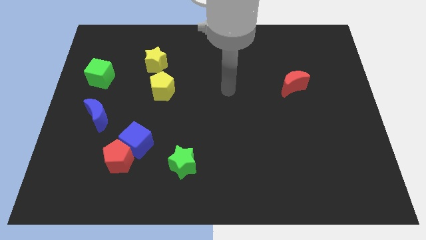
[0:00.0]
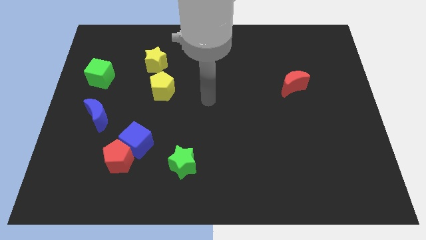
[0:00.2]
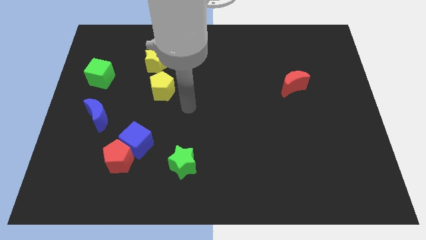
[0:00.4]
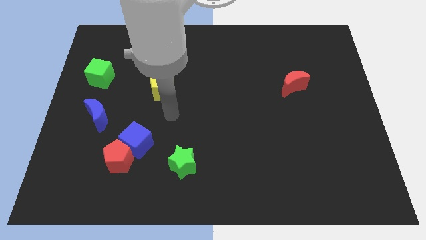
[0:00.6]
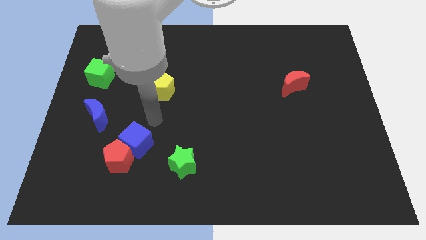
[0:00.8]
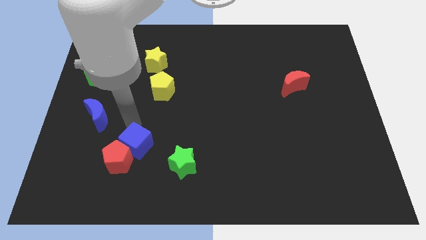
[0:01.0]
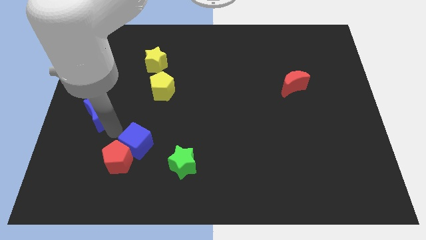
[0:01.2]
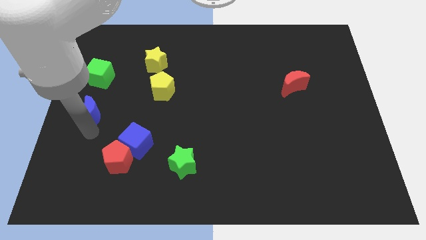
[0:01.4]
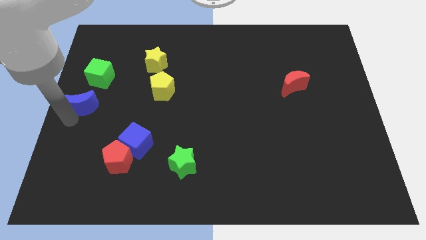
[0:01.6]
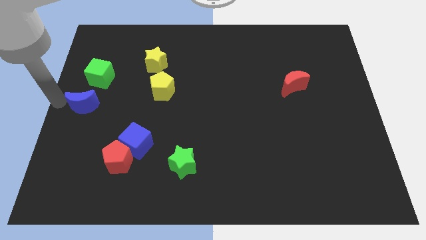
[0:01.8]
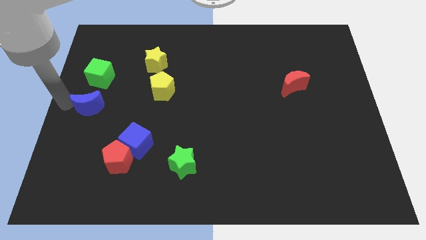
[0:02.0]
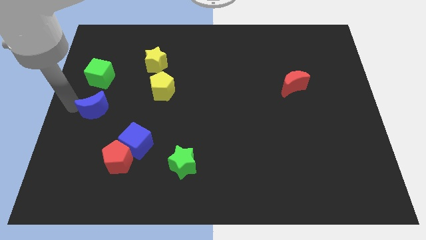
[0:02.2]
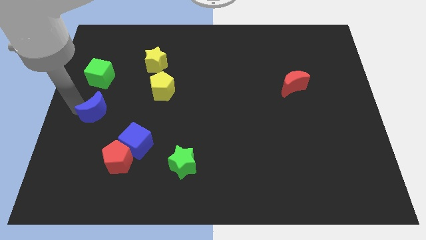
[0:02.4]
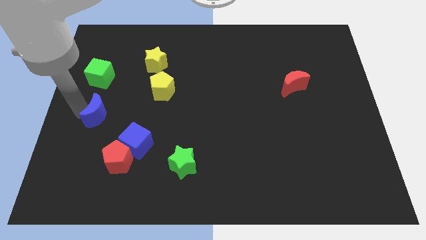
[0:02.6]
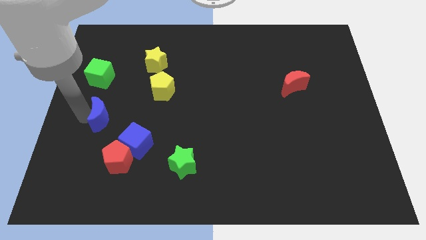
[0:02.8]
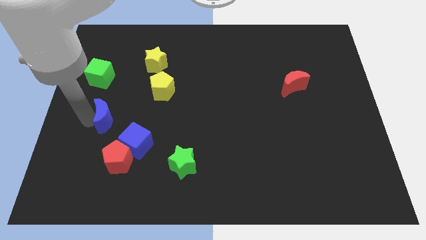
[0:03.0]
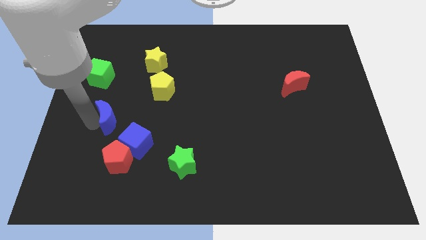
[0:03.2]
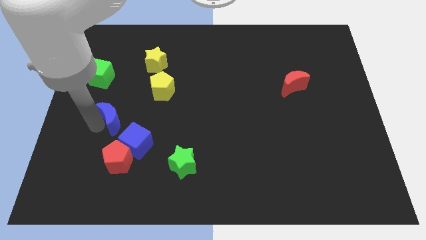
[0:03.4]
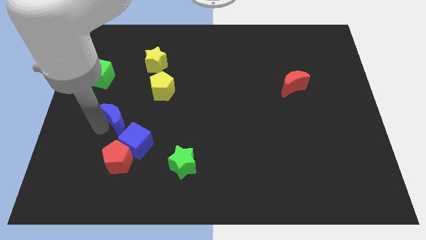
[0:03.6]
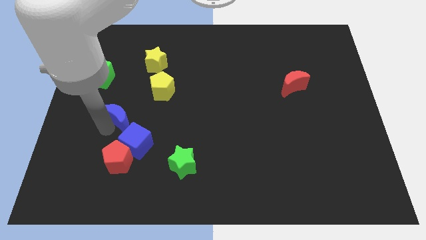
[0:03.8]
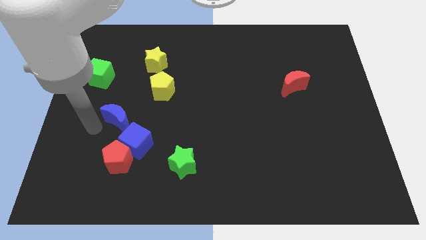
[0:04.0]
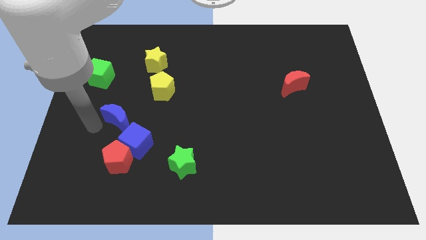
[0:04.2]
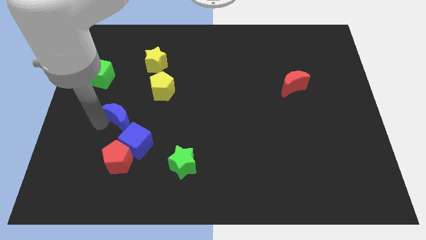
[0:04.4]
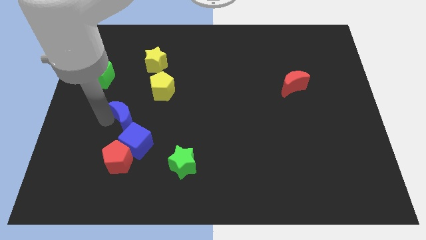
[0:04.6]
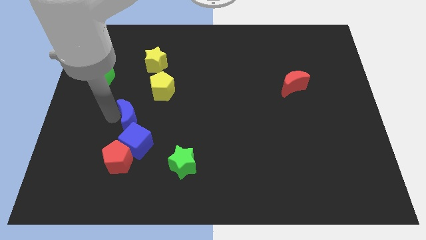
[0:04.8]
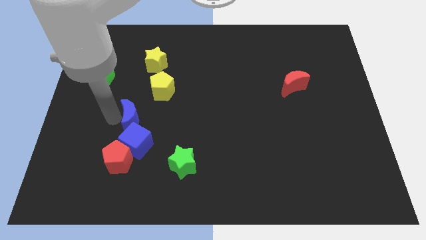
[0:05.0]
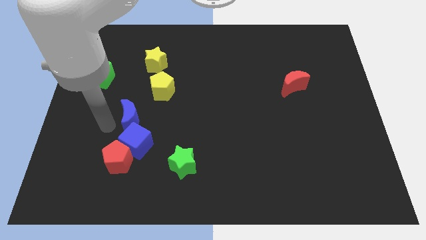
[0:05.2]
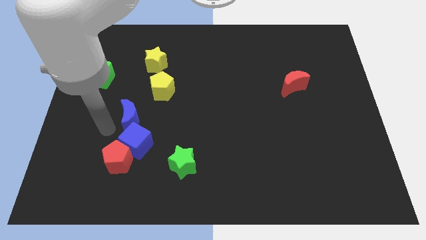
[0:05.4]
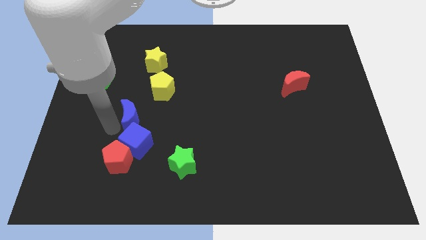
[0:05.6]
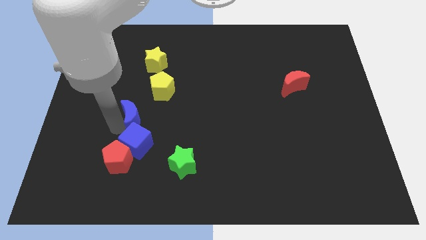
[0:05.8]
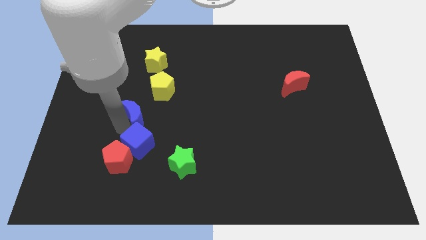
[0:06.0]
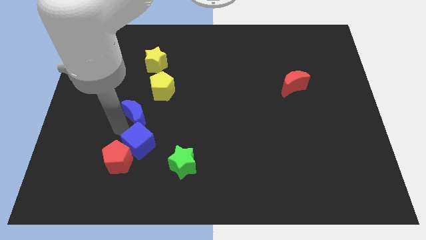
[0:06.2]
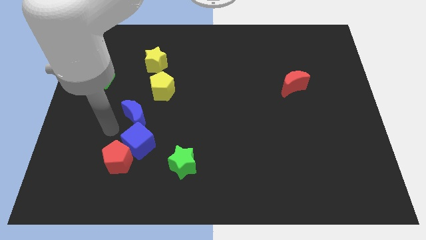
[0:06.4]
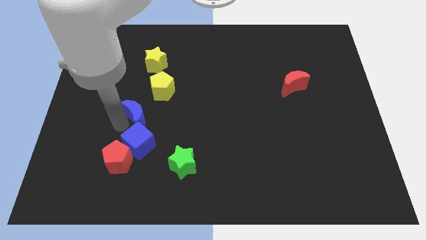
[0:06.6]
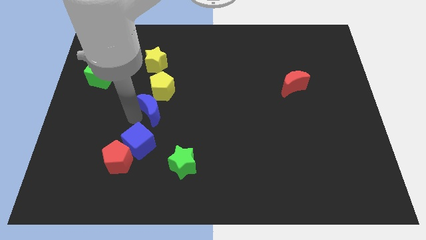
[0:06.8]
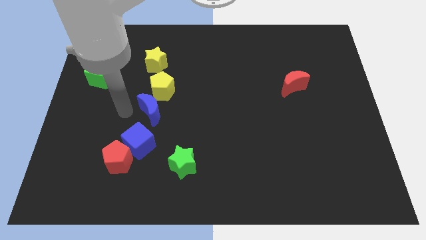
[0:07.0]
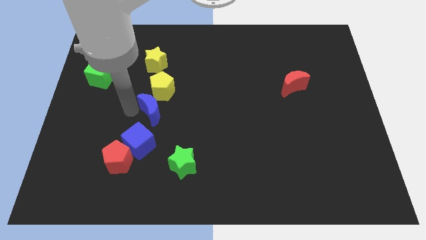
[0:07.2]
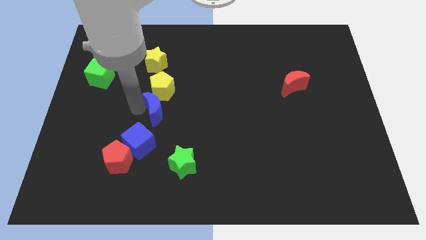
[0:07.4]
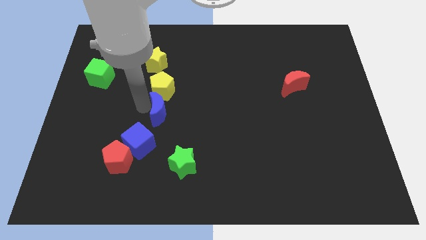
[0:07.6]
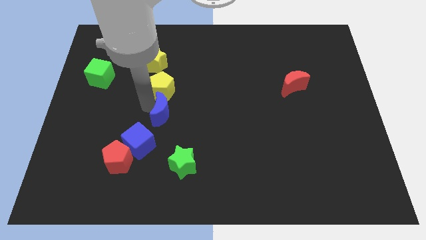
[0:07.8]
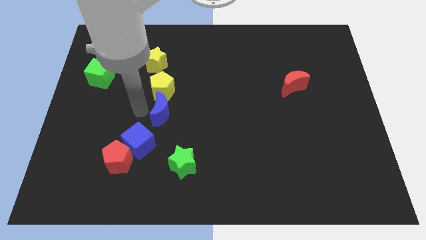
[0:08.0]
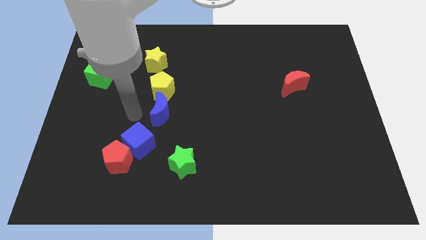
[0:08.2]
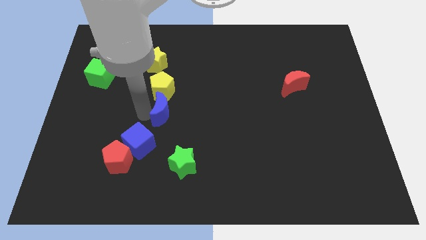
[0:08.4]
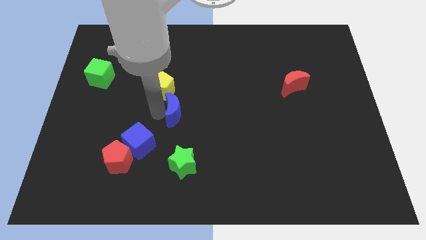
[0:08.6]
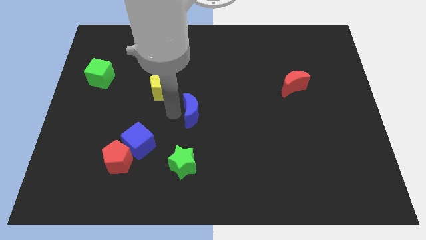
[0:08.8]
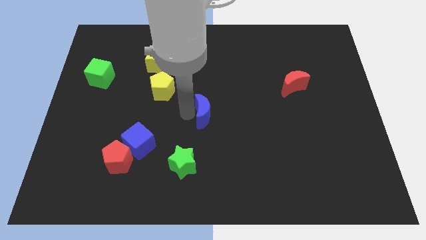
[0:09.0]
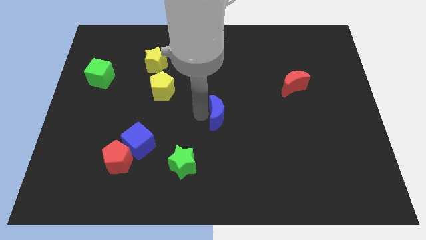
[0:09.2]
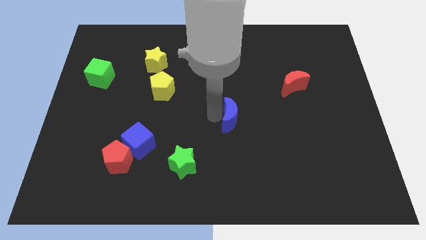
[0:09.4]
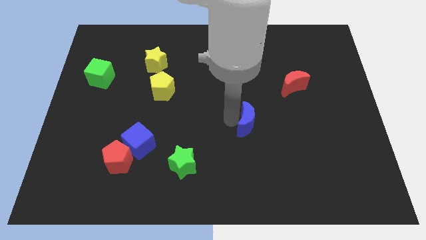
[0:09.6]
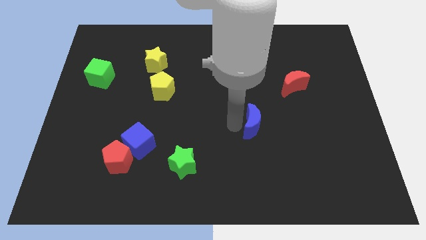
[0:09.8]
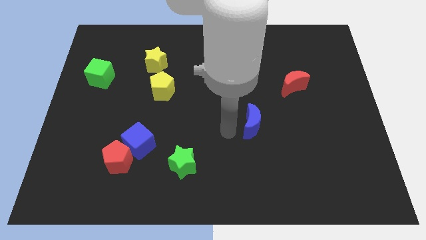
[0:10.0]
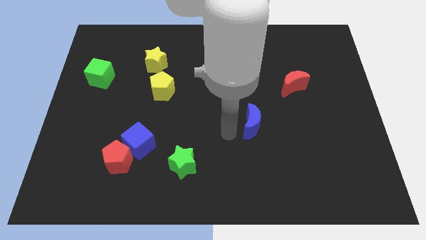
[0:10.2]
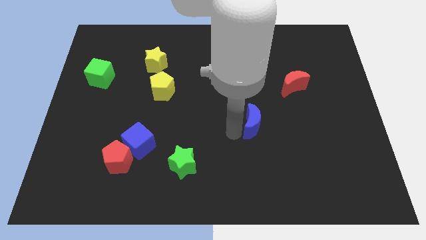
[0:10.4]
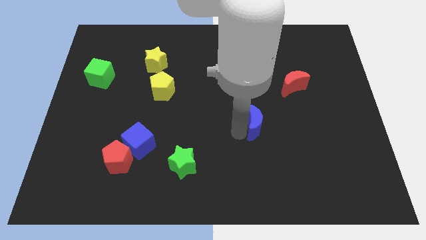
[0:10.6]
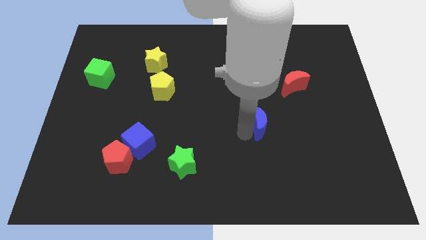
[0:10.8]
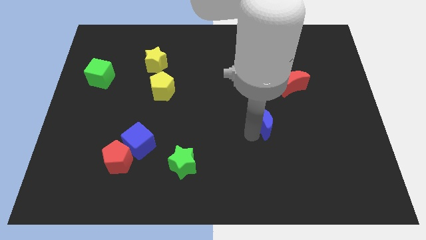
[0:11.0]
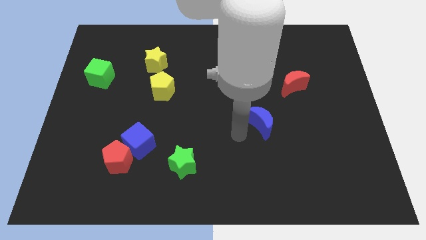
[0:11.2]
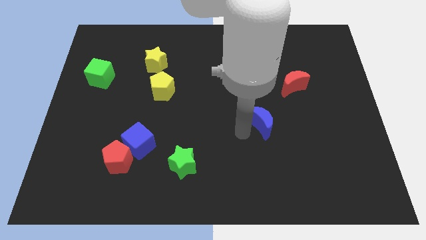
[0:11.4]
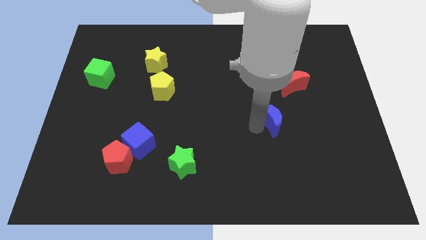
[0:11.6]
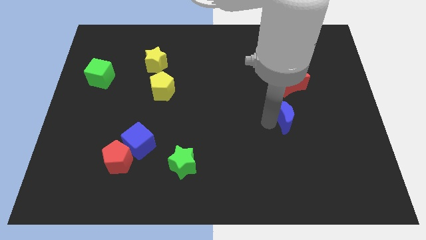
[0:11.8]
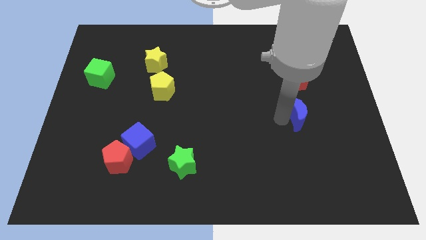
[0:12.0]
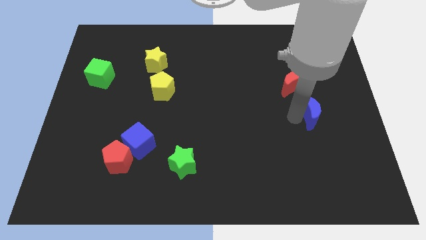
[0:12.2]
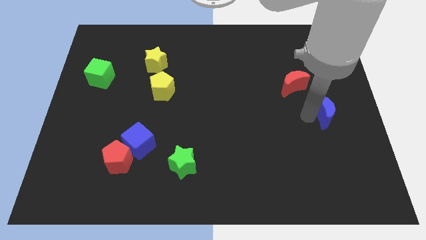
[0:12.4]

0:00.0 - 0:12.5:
move the blue moon to the right side

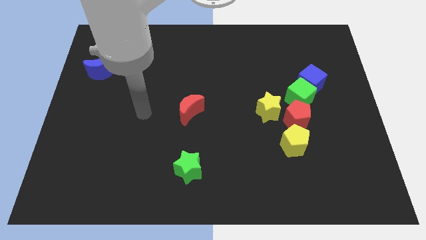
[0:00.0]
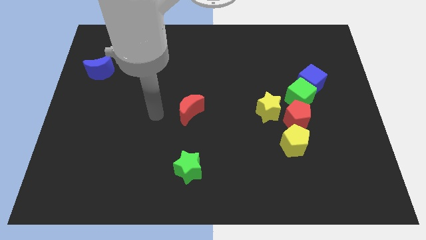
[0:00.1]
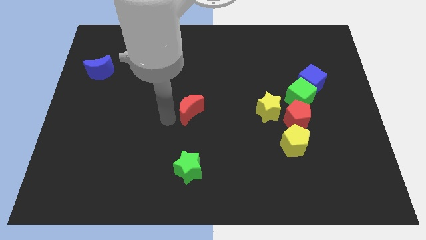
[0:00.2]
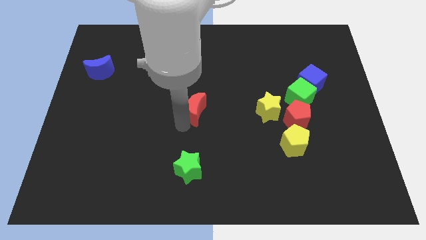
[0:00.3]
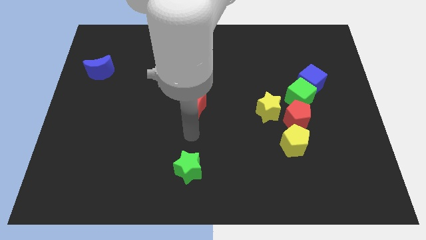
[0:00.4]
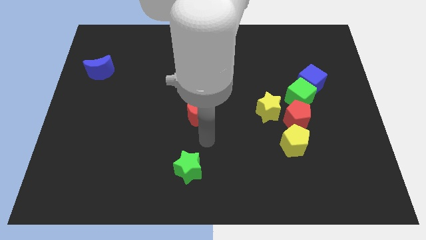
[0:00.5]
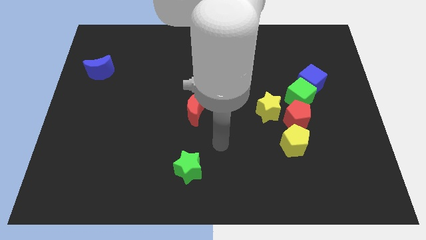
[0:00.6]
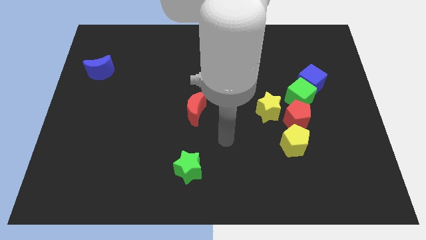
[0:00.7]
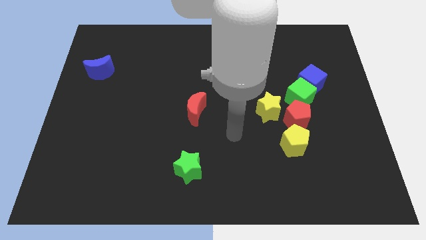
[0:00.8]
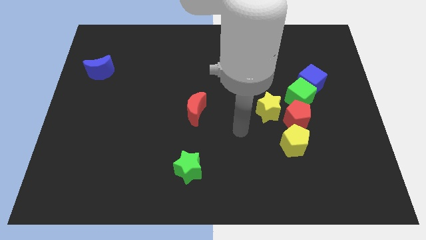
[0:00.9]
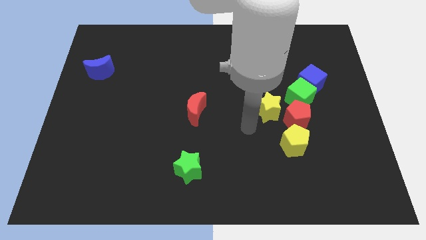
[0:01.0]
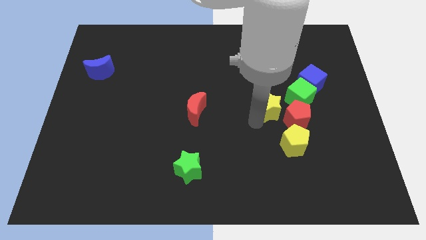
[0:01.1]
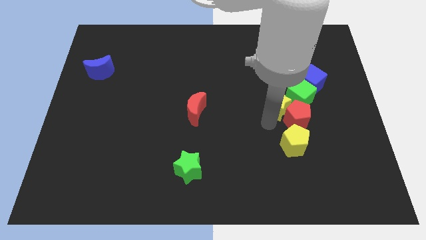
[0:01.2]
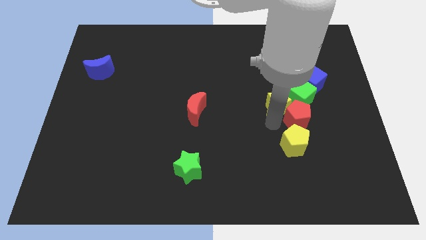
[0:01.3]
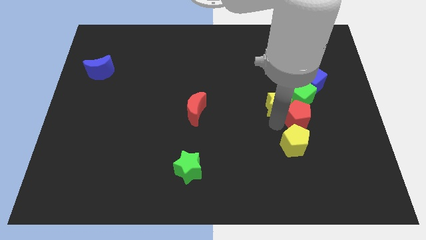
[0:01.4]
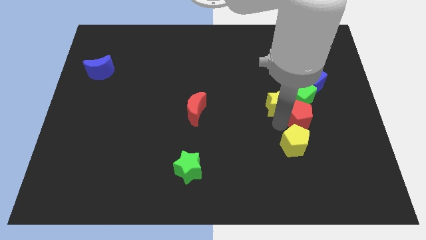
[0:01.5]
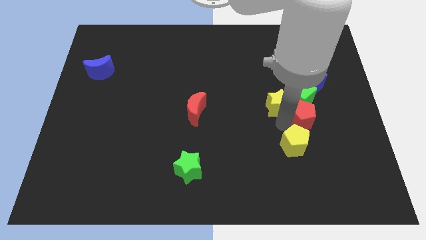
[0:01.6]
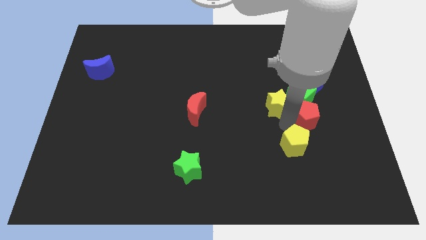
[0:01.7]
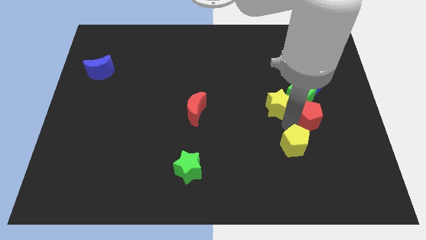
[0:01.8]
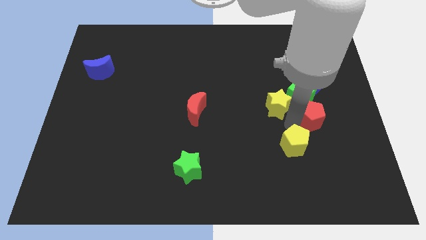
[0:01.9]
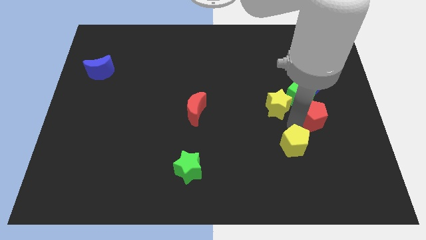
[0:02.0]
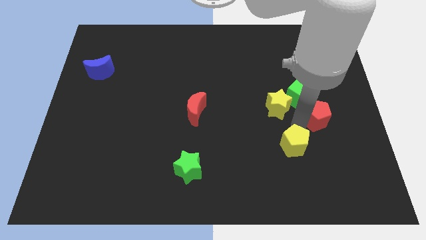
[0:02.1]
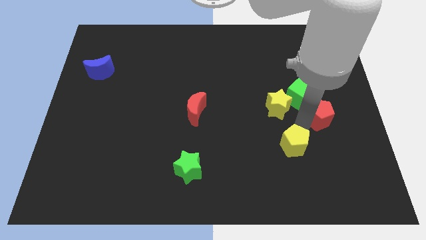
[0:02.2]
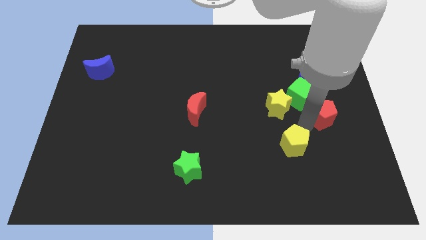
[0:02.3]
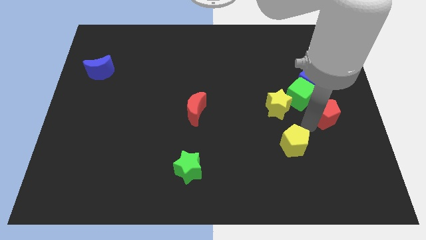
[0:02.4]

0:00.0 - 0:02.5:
move the red pentagon to the center right
